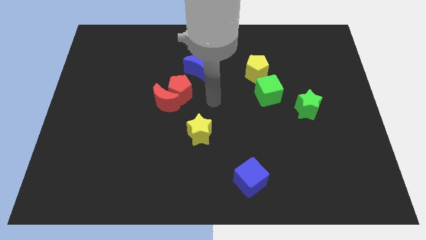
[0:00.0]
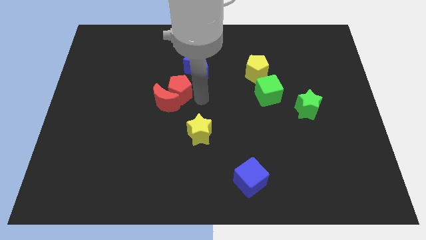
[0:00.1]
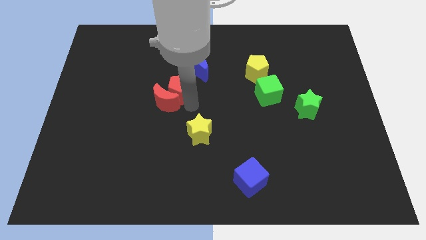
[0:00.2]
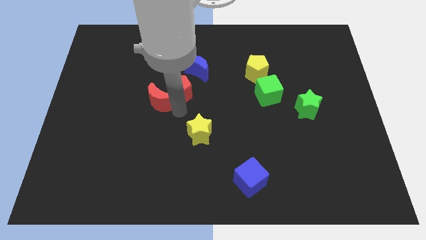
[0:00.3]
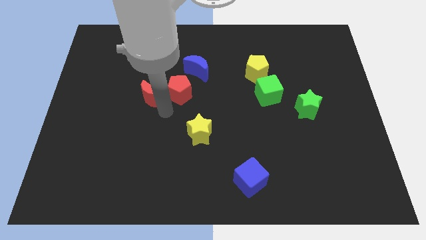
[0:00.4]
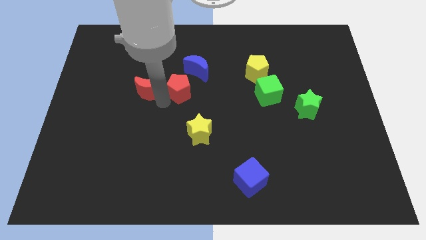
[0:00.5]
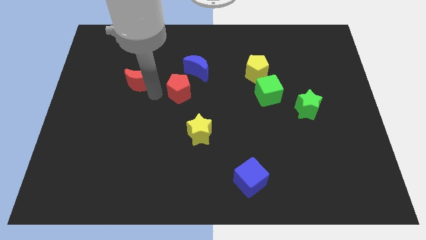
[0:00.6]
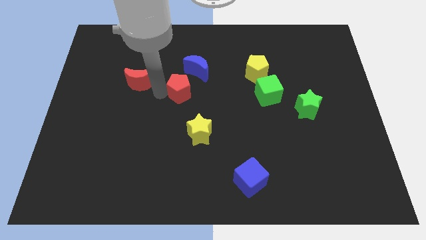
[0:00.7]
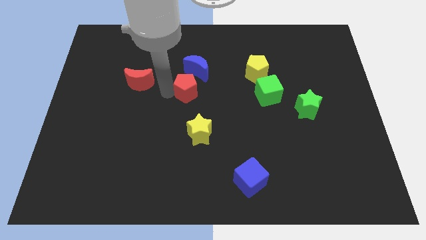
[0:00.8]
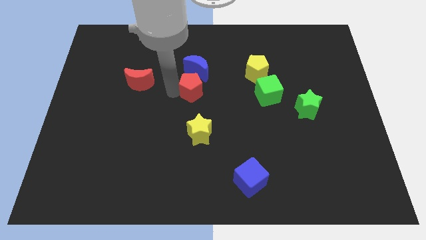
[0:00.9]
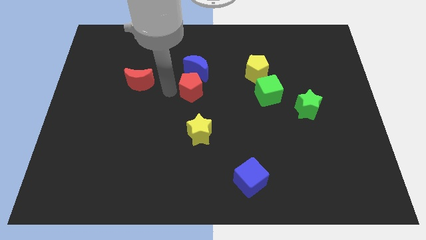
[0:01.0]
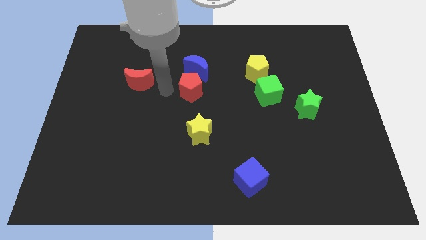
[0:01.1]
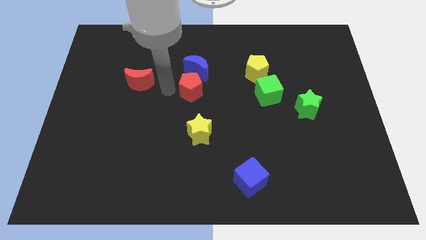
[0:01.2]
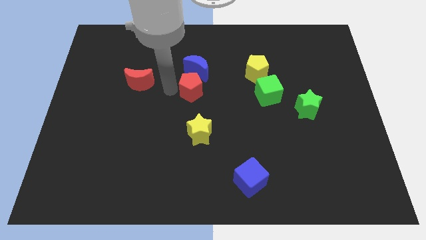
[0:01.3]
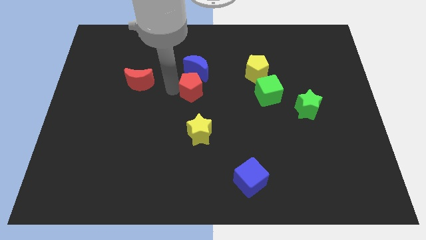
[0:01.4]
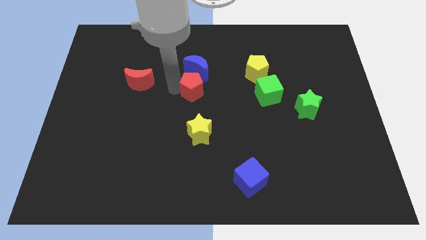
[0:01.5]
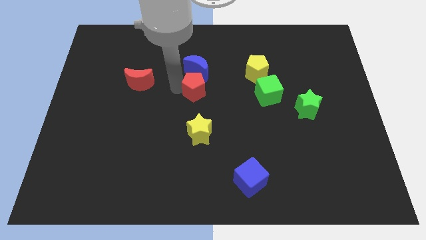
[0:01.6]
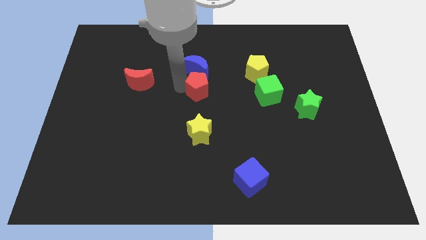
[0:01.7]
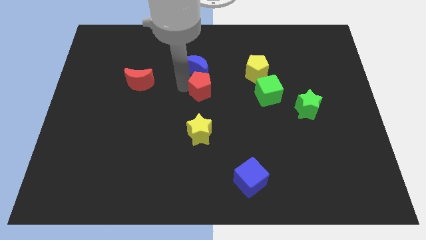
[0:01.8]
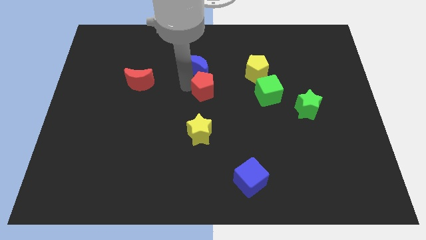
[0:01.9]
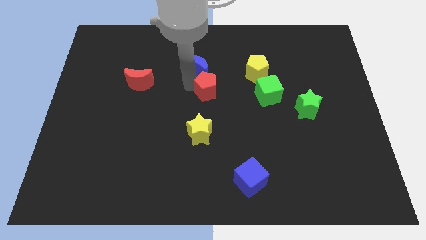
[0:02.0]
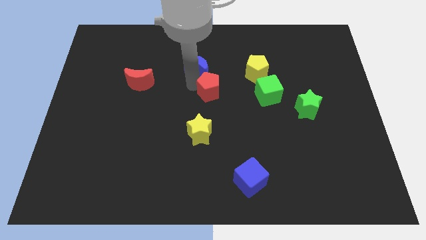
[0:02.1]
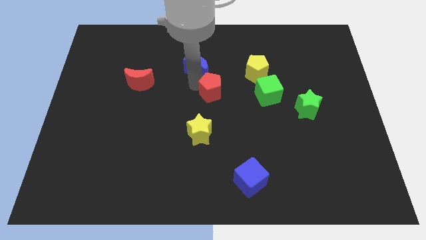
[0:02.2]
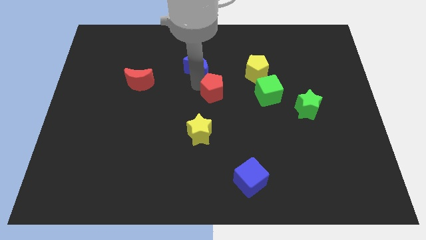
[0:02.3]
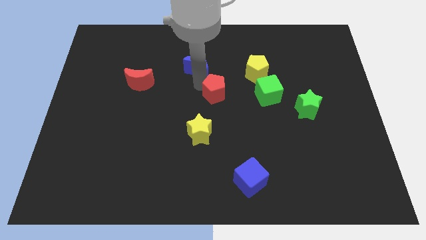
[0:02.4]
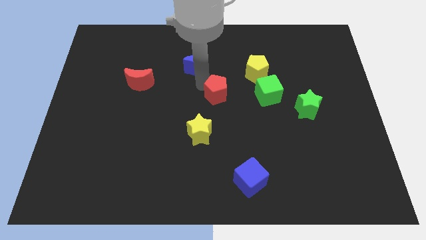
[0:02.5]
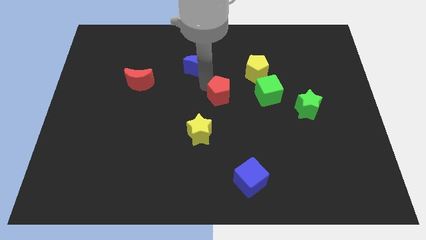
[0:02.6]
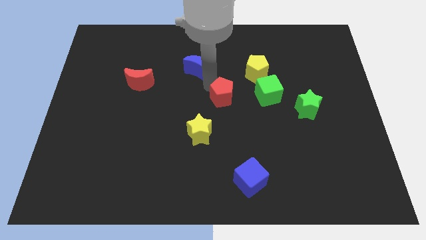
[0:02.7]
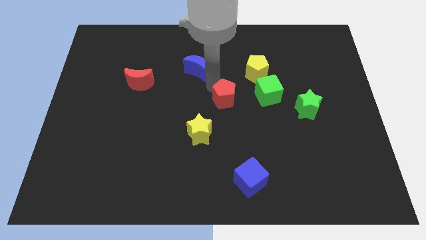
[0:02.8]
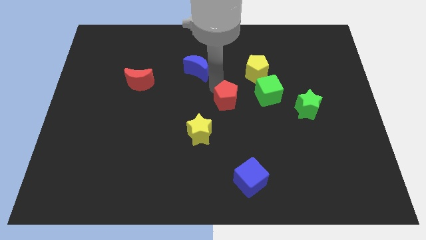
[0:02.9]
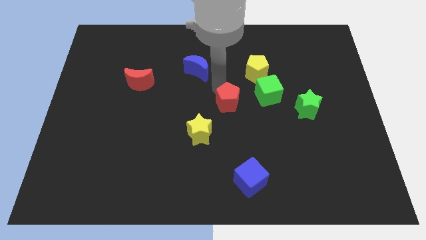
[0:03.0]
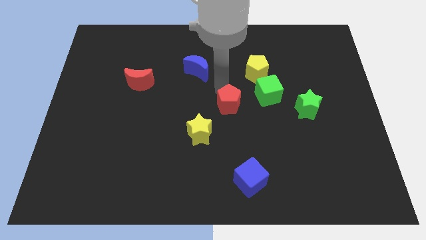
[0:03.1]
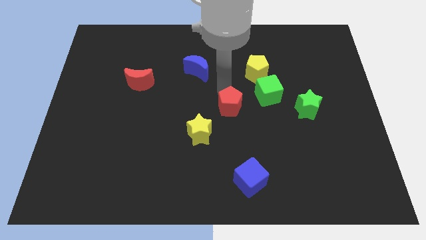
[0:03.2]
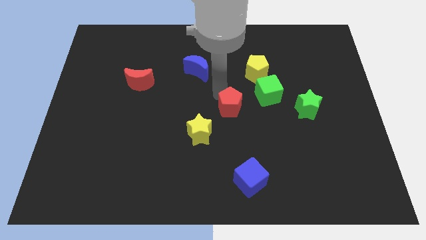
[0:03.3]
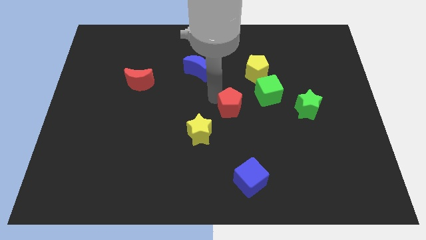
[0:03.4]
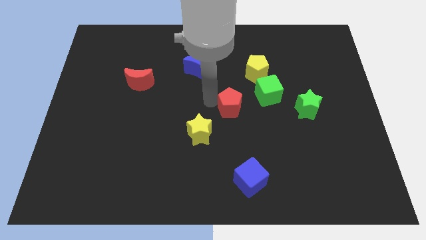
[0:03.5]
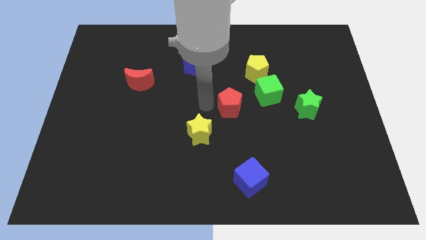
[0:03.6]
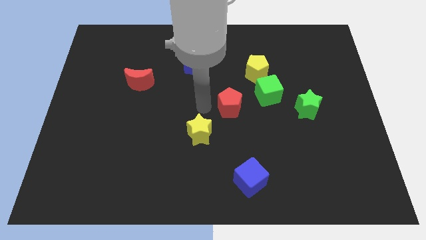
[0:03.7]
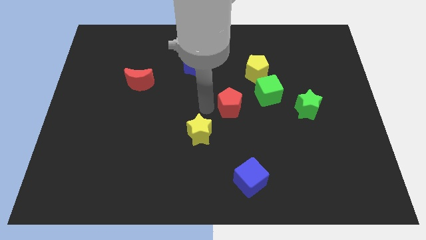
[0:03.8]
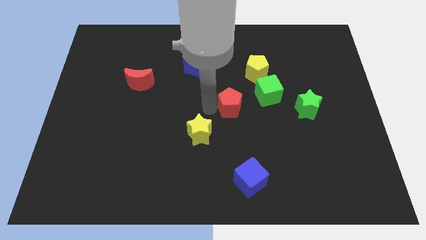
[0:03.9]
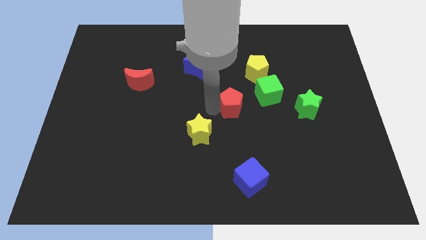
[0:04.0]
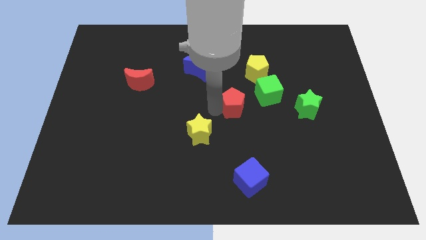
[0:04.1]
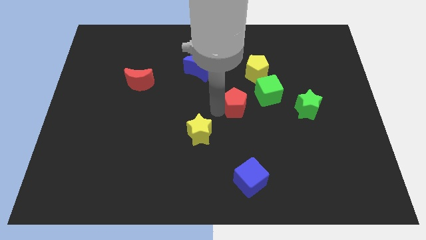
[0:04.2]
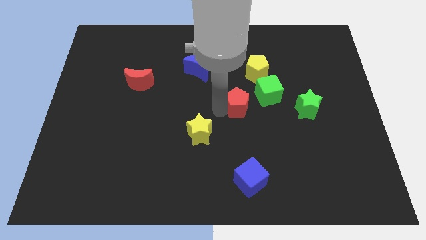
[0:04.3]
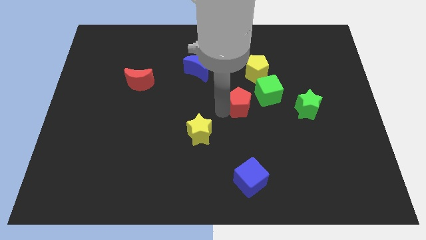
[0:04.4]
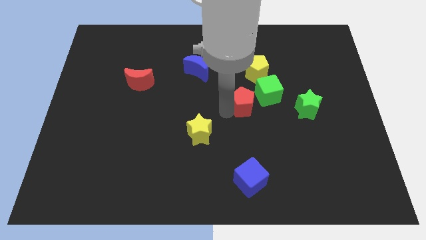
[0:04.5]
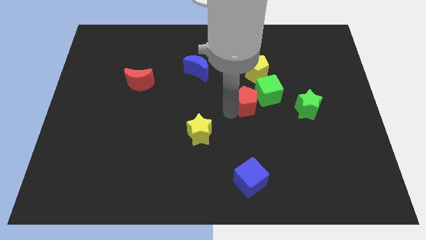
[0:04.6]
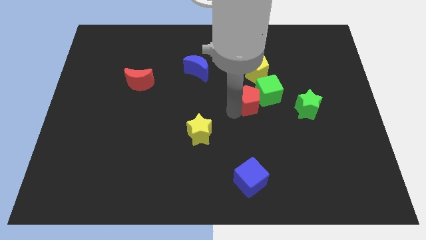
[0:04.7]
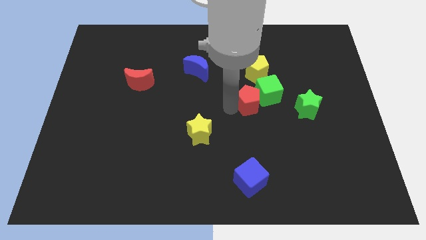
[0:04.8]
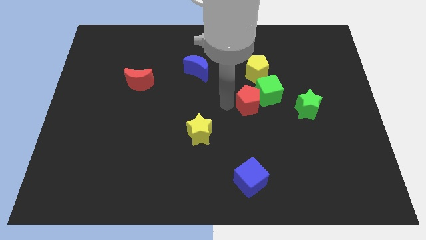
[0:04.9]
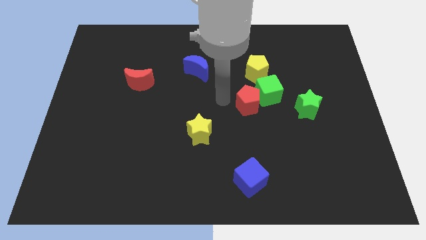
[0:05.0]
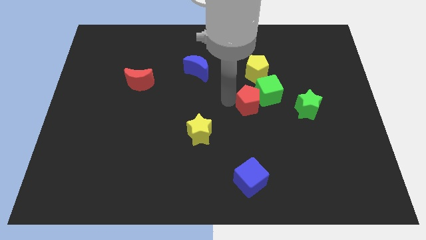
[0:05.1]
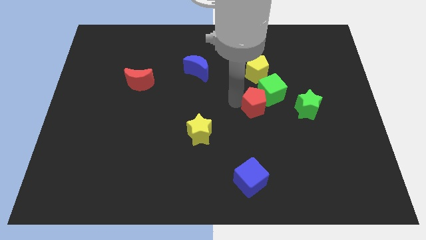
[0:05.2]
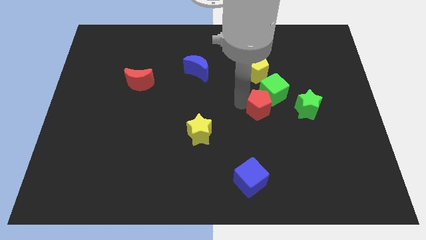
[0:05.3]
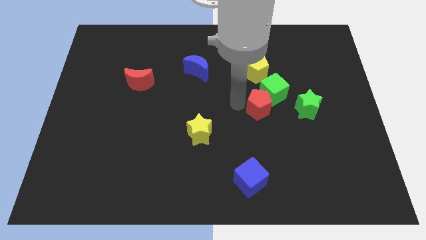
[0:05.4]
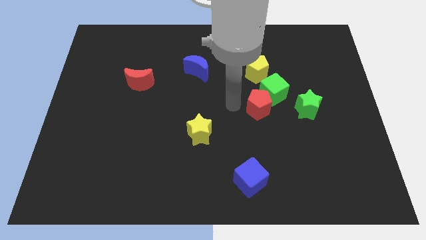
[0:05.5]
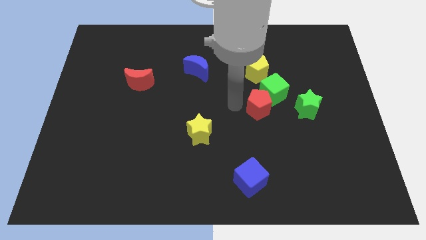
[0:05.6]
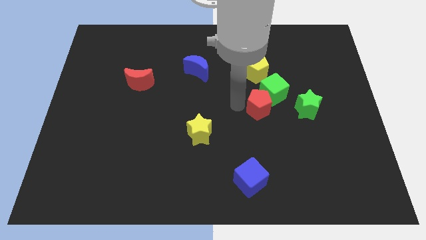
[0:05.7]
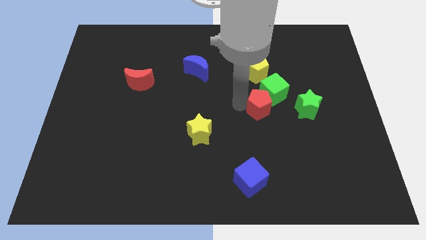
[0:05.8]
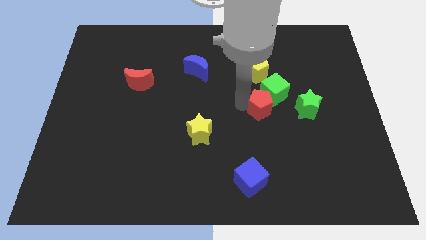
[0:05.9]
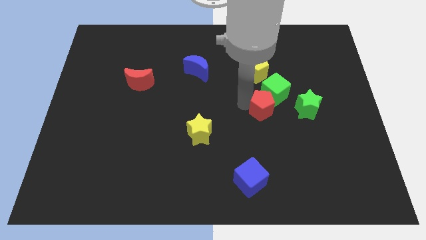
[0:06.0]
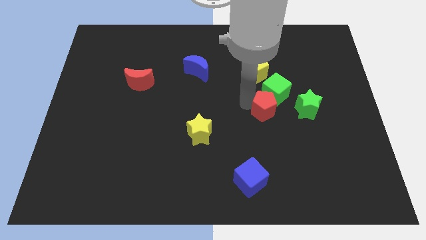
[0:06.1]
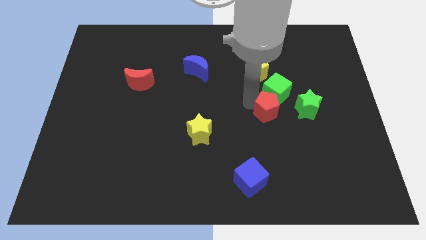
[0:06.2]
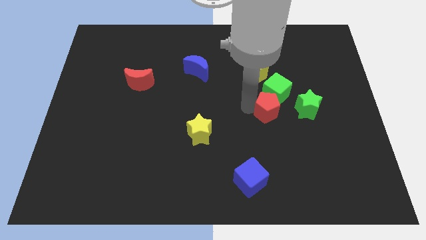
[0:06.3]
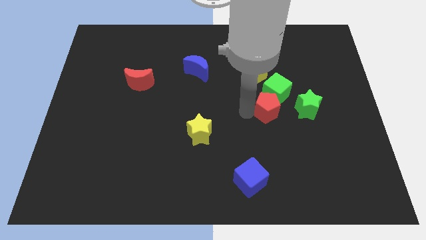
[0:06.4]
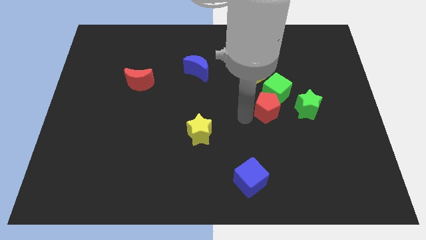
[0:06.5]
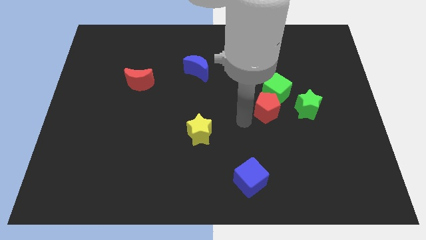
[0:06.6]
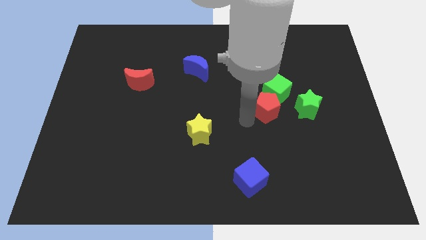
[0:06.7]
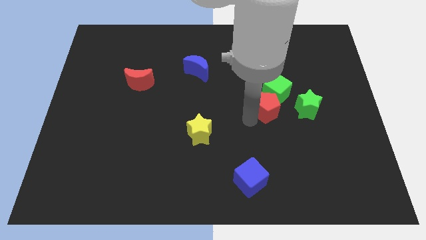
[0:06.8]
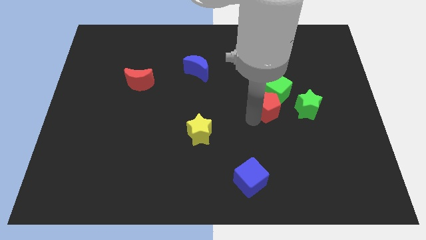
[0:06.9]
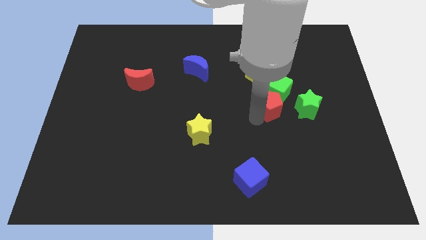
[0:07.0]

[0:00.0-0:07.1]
push the red pentagon to the right

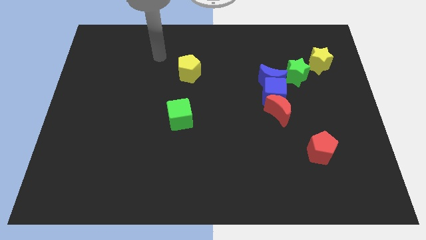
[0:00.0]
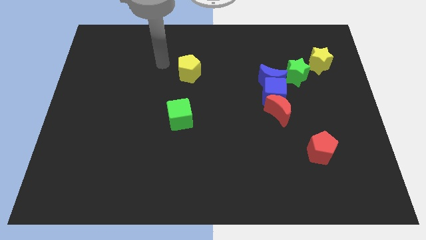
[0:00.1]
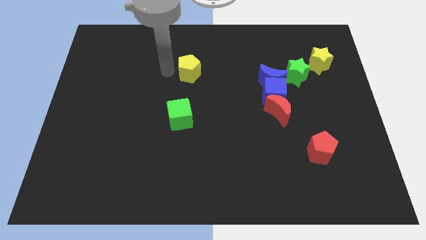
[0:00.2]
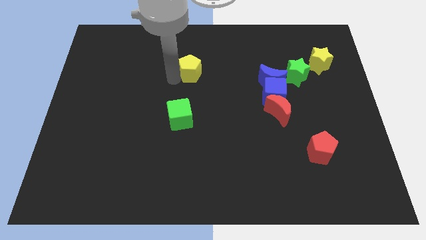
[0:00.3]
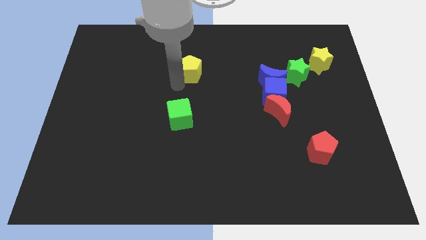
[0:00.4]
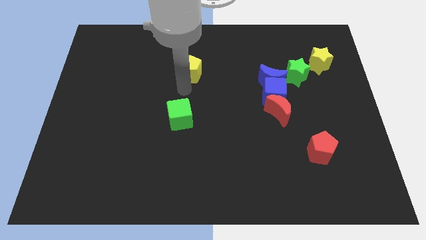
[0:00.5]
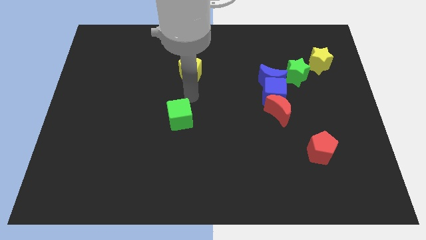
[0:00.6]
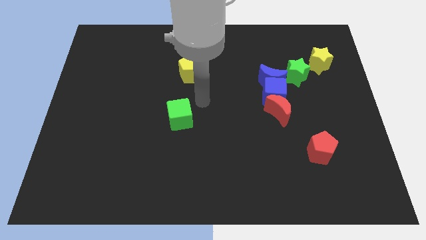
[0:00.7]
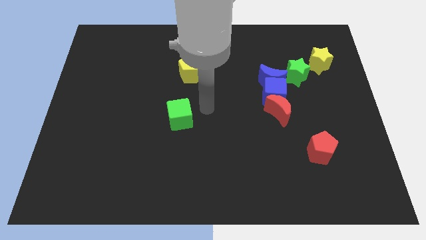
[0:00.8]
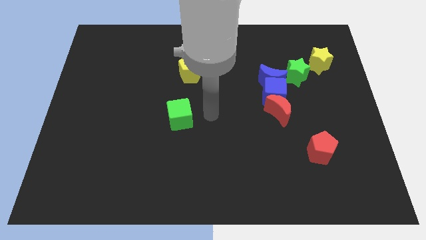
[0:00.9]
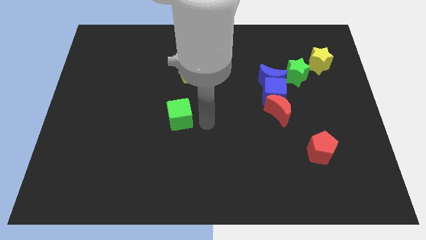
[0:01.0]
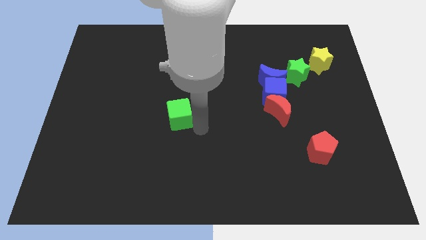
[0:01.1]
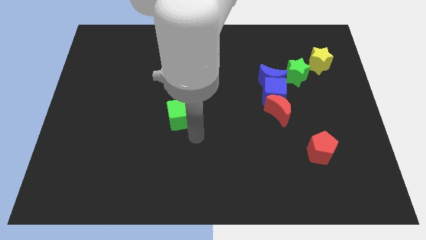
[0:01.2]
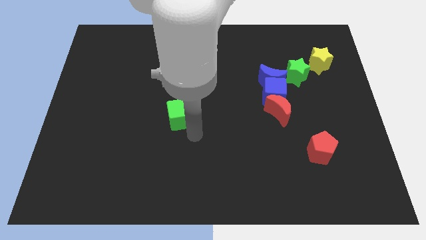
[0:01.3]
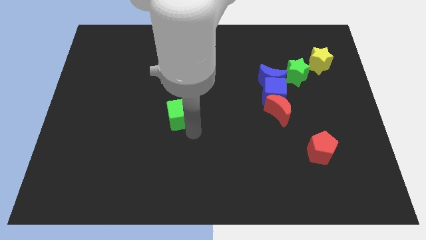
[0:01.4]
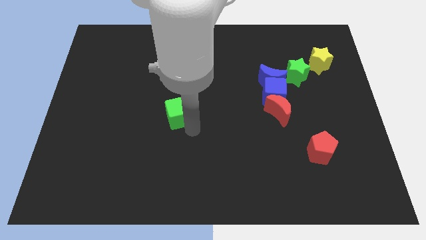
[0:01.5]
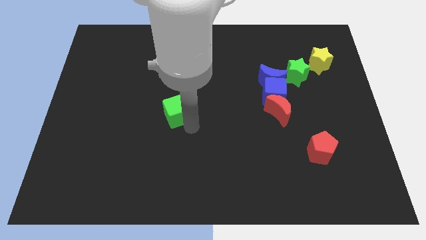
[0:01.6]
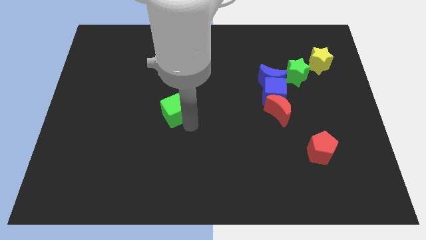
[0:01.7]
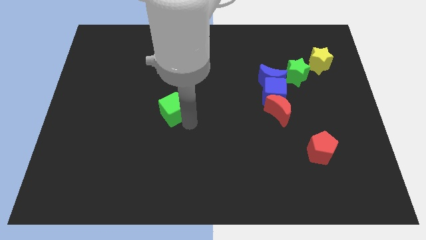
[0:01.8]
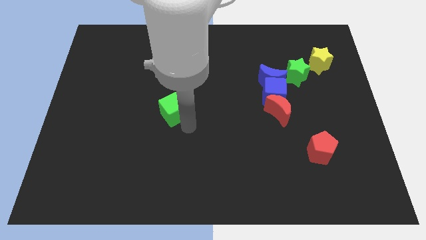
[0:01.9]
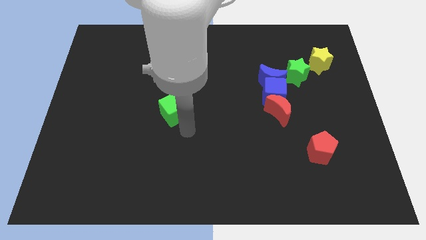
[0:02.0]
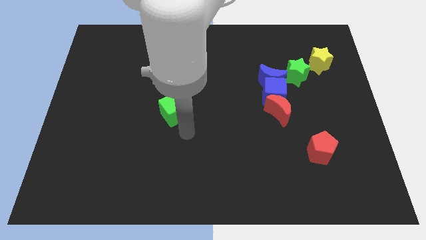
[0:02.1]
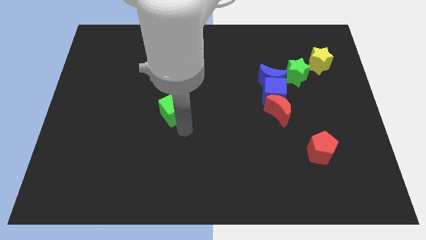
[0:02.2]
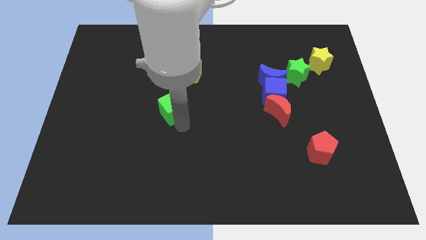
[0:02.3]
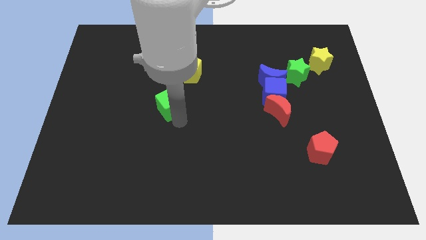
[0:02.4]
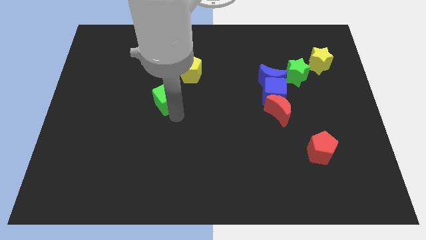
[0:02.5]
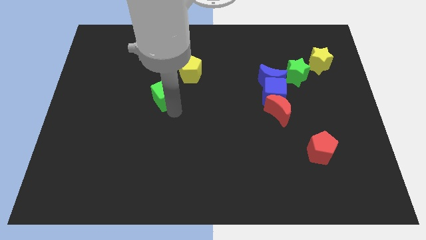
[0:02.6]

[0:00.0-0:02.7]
slide the green cube upwards and then to the left a little bit
